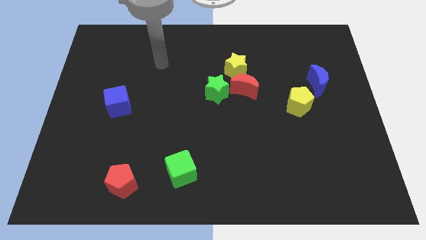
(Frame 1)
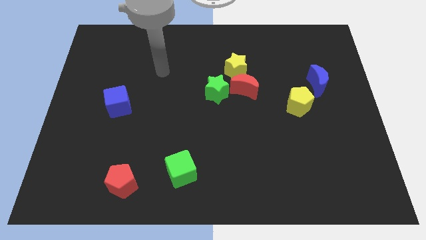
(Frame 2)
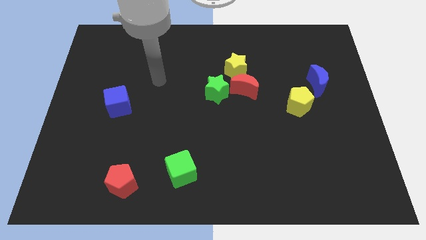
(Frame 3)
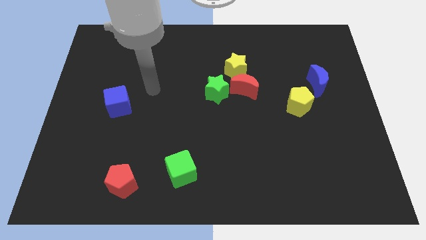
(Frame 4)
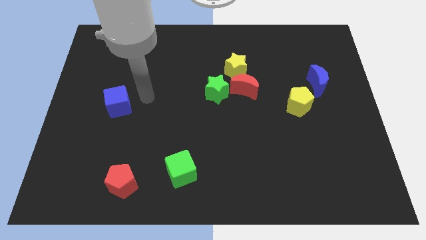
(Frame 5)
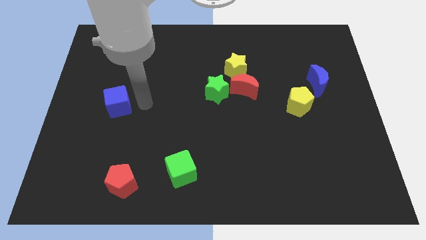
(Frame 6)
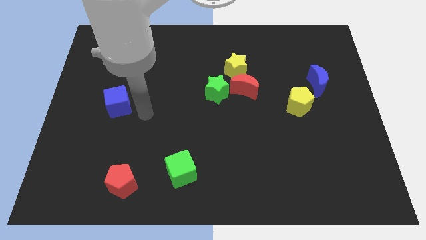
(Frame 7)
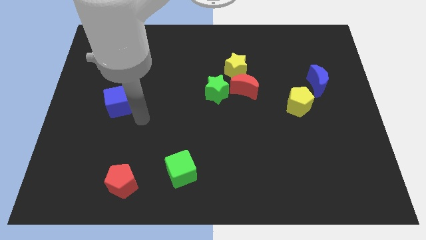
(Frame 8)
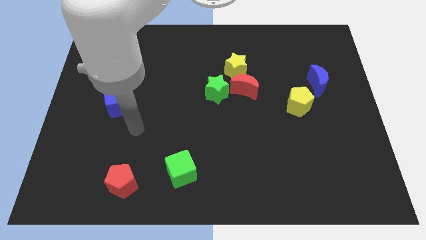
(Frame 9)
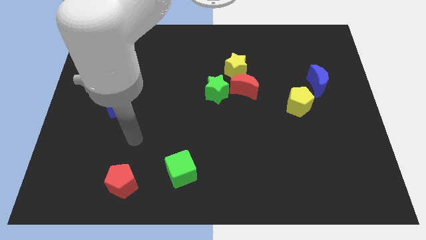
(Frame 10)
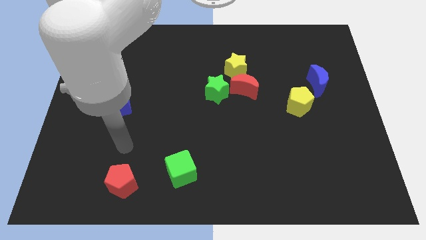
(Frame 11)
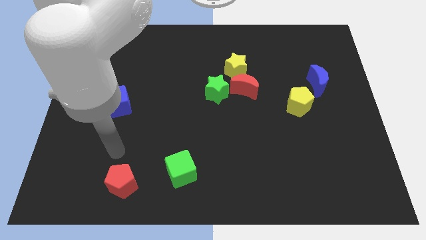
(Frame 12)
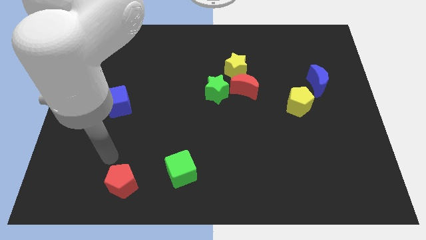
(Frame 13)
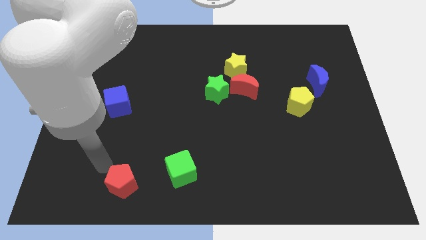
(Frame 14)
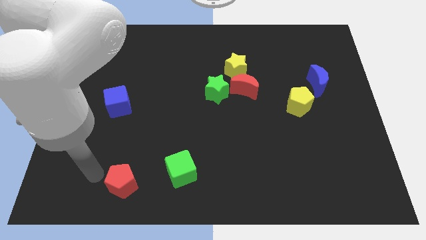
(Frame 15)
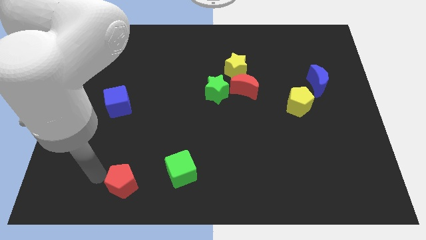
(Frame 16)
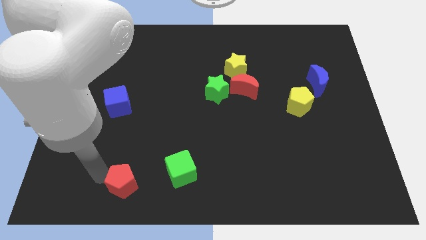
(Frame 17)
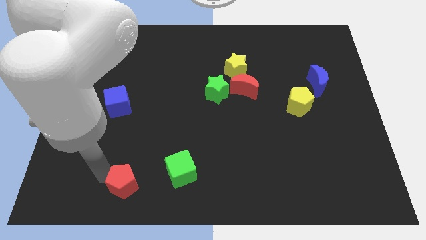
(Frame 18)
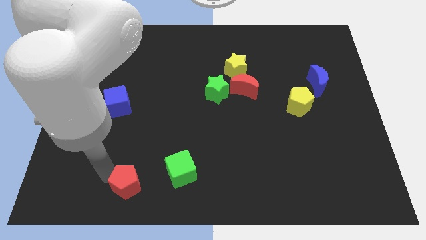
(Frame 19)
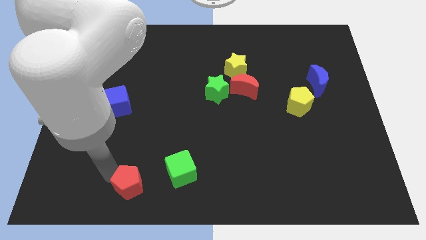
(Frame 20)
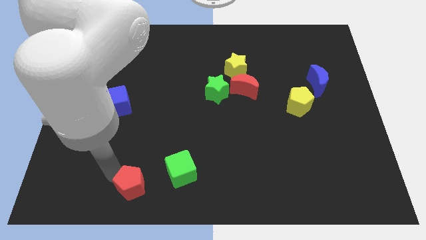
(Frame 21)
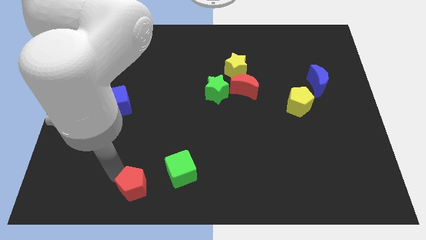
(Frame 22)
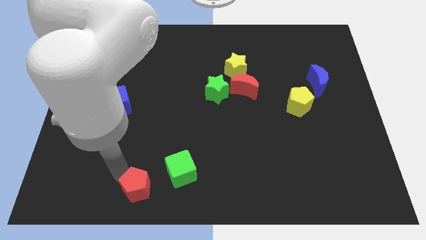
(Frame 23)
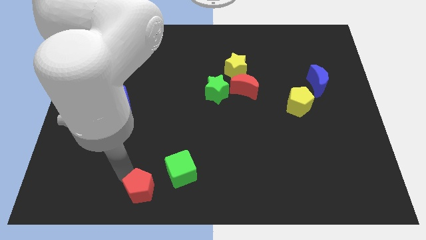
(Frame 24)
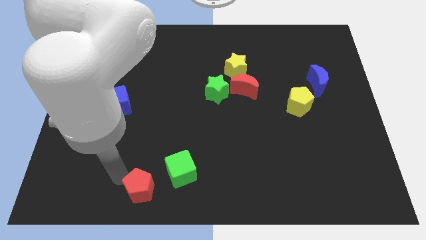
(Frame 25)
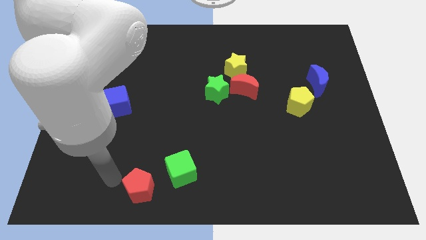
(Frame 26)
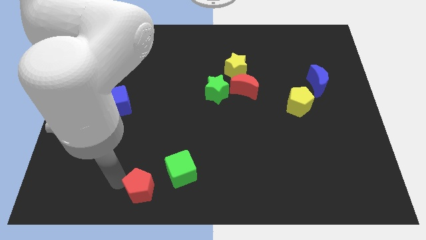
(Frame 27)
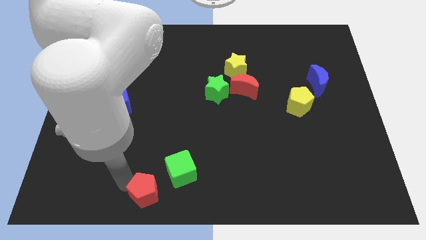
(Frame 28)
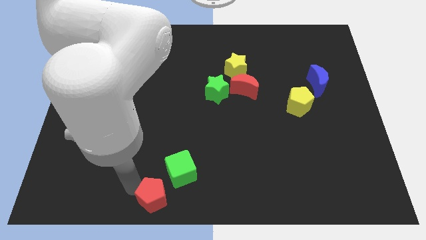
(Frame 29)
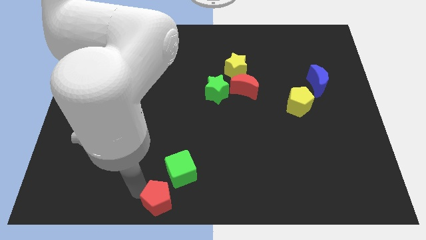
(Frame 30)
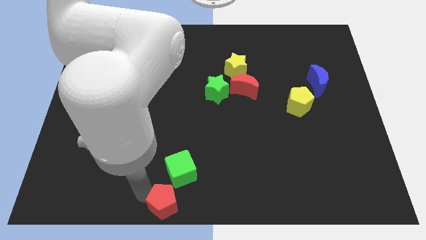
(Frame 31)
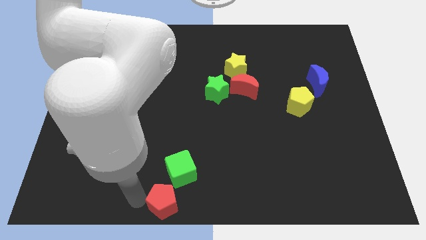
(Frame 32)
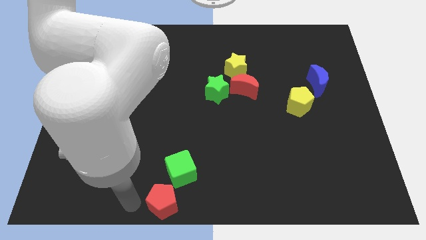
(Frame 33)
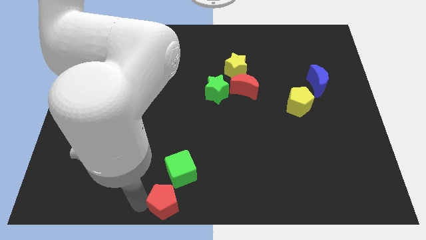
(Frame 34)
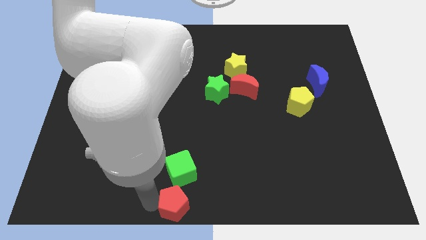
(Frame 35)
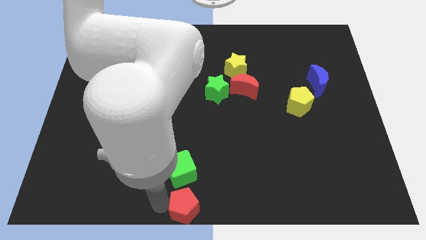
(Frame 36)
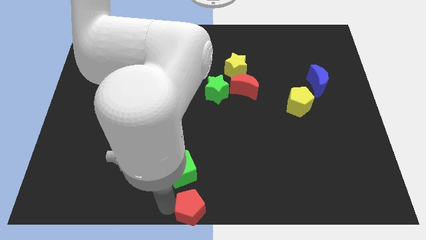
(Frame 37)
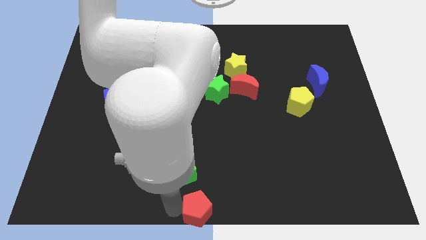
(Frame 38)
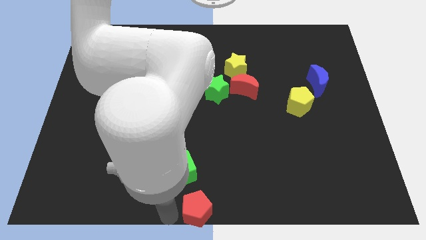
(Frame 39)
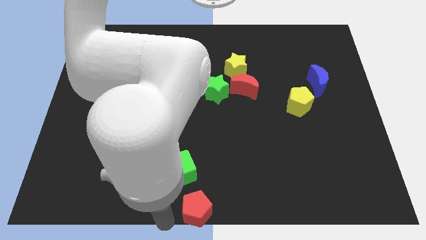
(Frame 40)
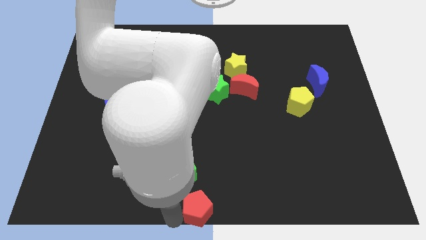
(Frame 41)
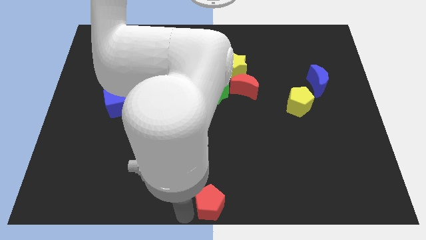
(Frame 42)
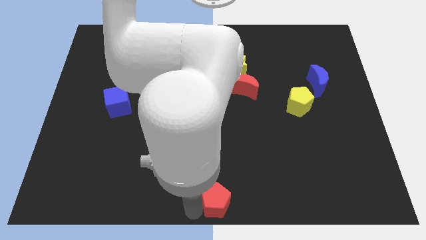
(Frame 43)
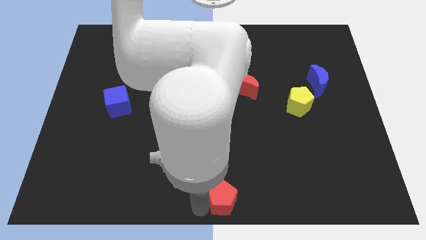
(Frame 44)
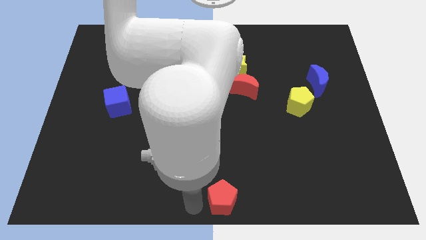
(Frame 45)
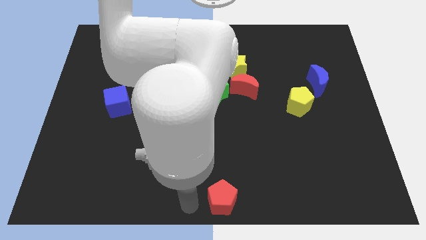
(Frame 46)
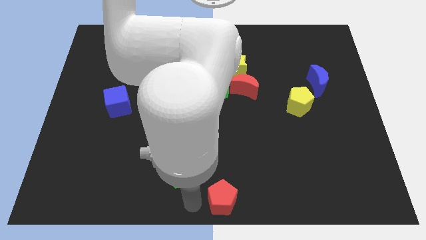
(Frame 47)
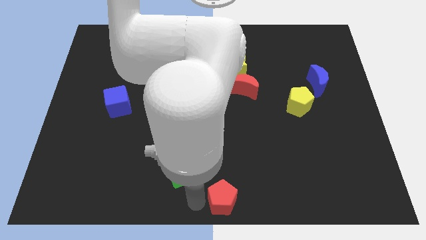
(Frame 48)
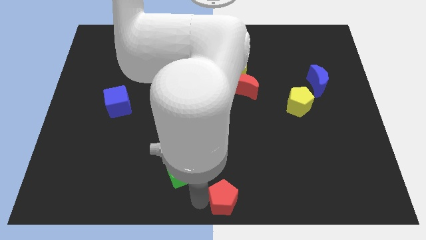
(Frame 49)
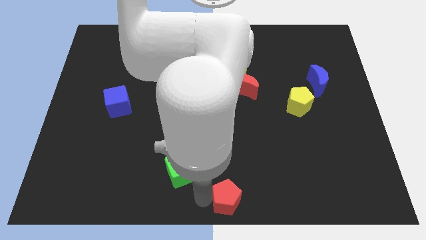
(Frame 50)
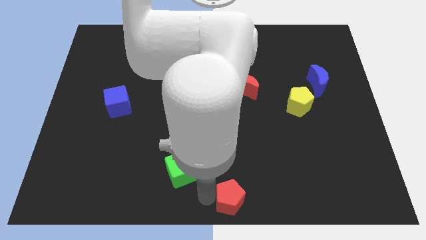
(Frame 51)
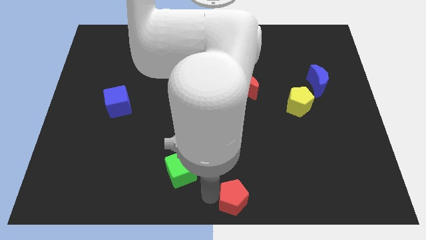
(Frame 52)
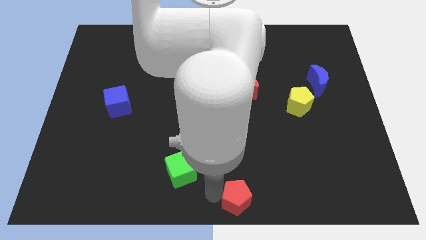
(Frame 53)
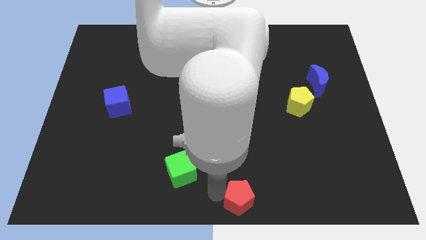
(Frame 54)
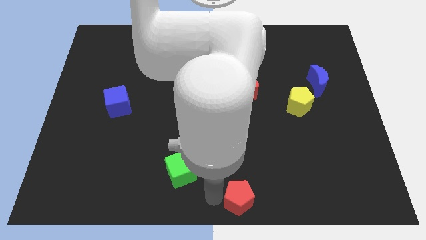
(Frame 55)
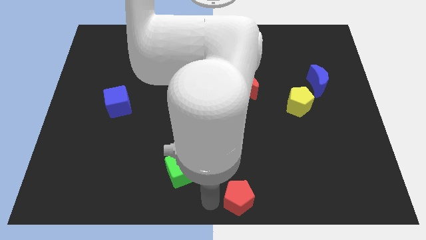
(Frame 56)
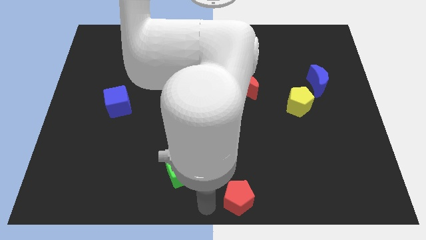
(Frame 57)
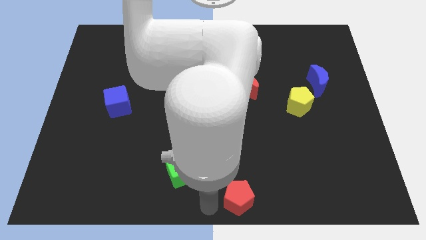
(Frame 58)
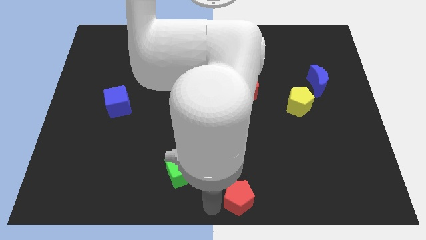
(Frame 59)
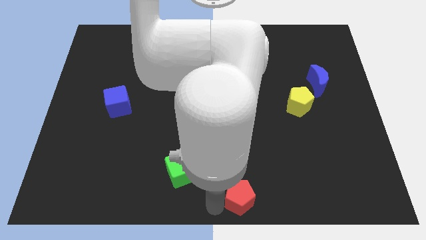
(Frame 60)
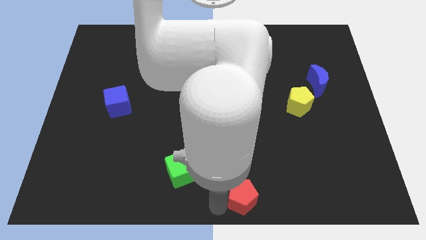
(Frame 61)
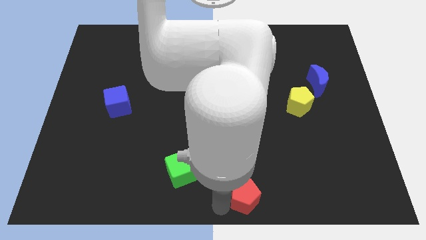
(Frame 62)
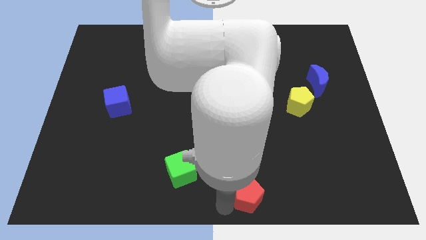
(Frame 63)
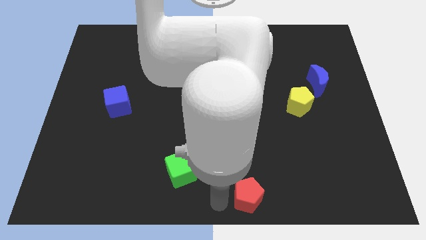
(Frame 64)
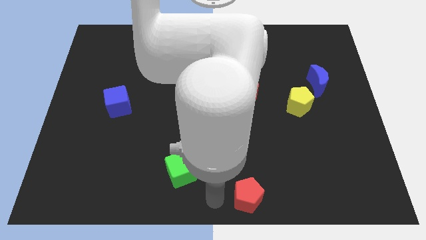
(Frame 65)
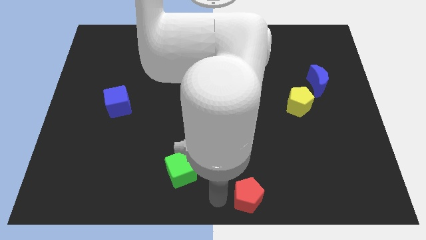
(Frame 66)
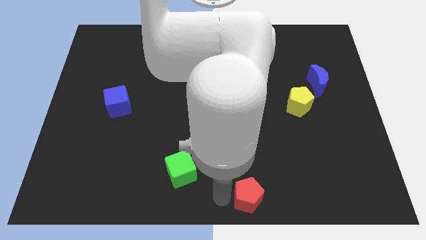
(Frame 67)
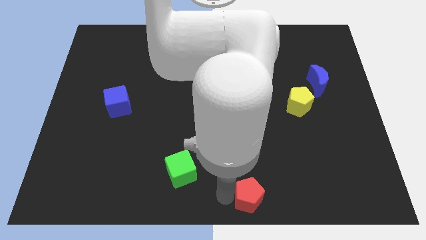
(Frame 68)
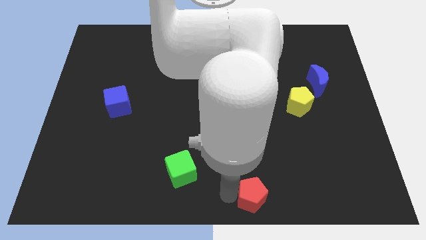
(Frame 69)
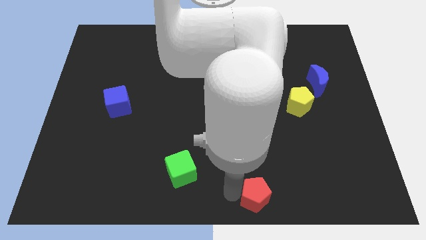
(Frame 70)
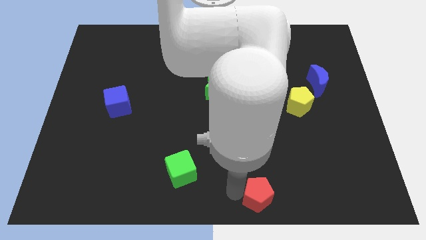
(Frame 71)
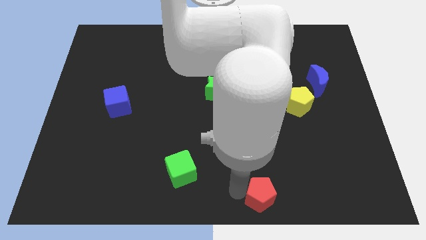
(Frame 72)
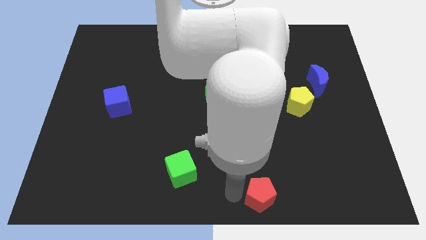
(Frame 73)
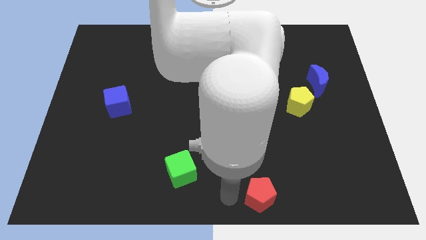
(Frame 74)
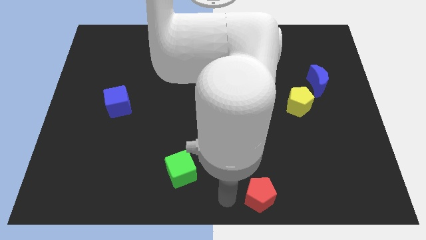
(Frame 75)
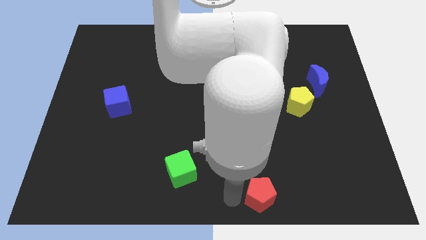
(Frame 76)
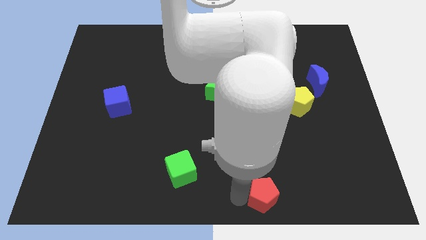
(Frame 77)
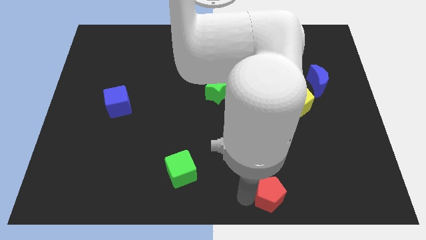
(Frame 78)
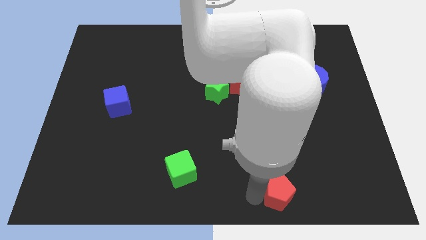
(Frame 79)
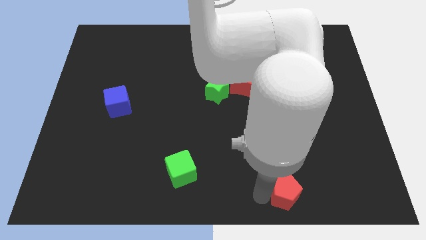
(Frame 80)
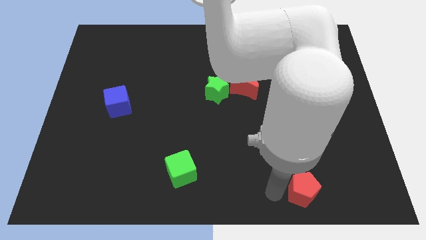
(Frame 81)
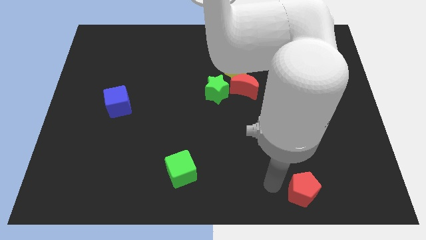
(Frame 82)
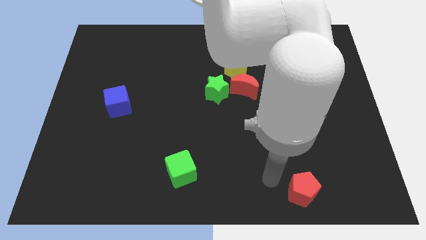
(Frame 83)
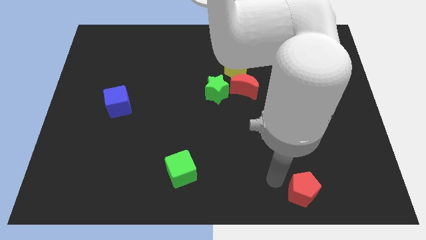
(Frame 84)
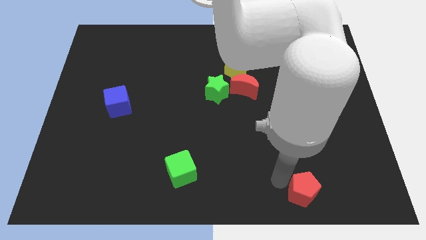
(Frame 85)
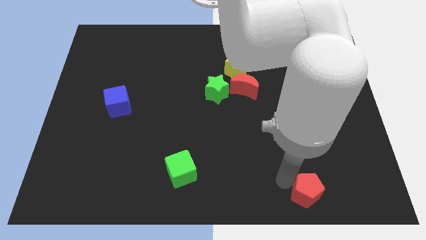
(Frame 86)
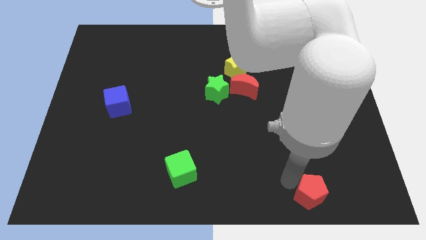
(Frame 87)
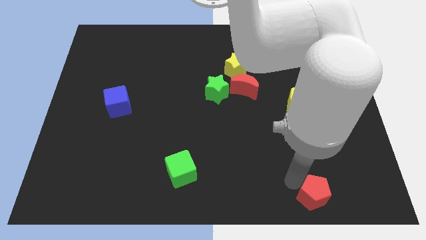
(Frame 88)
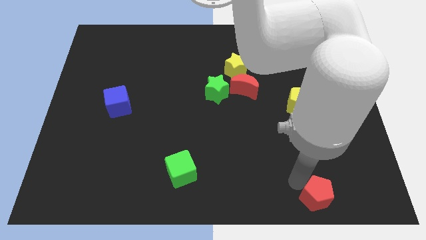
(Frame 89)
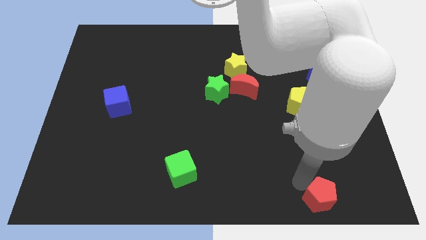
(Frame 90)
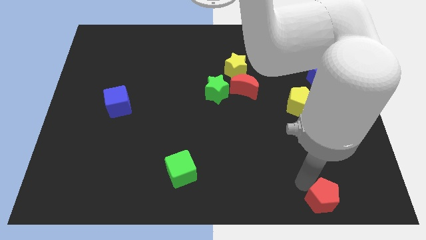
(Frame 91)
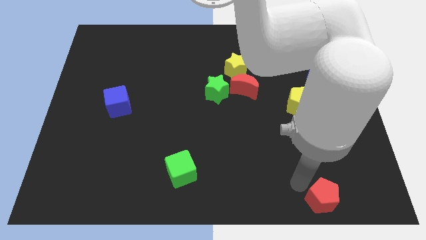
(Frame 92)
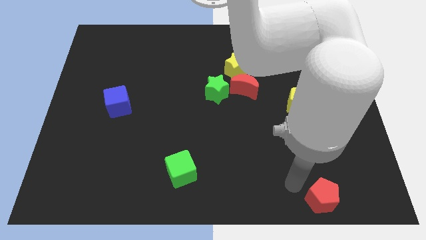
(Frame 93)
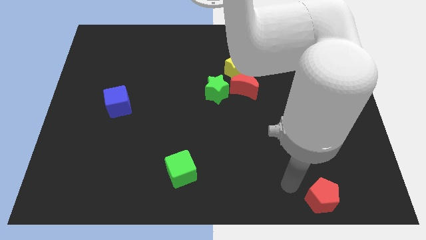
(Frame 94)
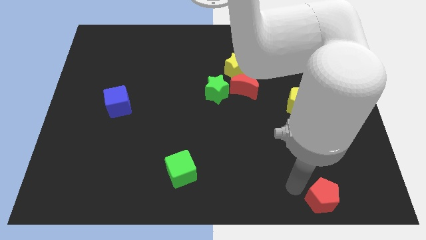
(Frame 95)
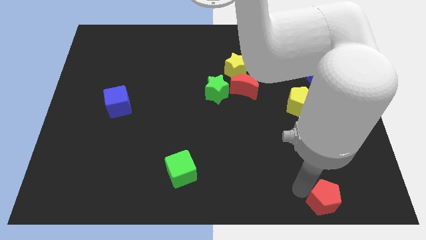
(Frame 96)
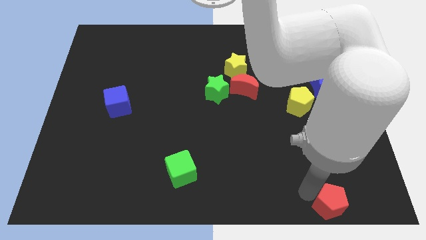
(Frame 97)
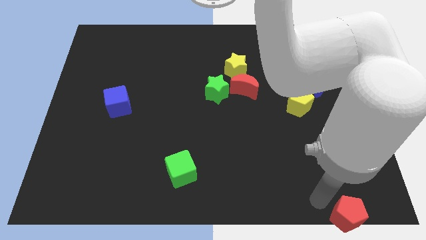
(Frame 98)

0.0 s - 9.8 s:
put the red pentagon to the bottom right corner
